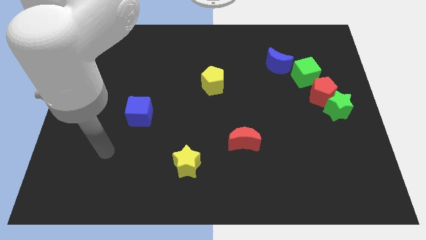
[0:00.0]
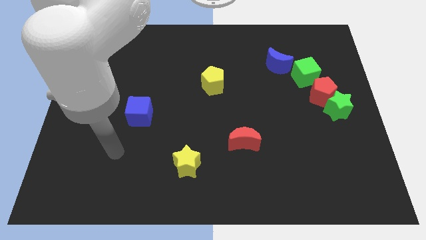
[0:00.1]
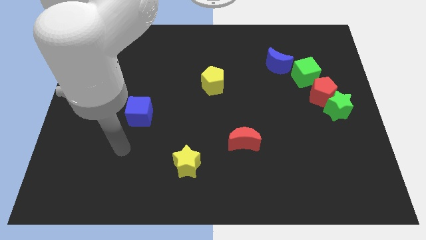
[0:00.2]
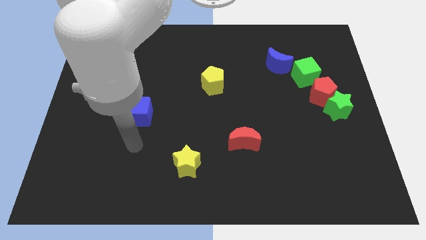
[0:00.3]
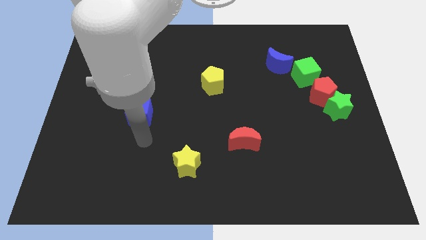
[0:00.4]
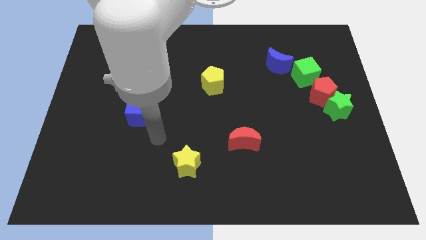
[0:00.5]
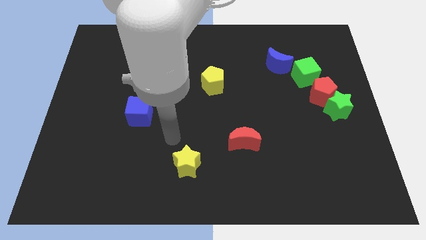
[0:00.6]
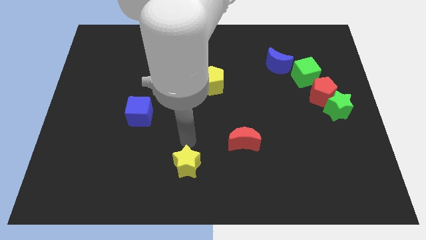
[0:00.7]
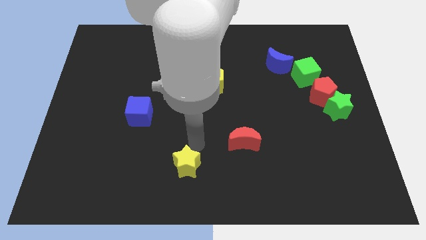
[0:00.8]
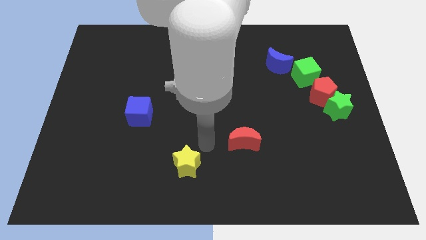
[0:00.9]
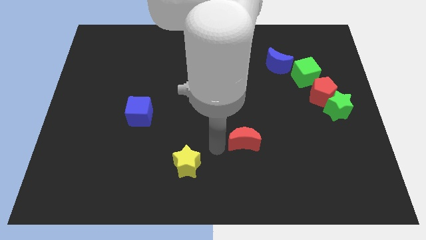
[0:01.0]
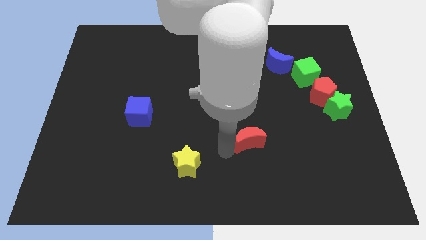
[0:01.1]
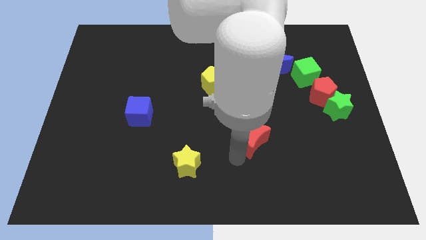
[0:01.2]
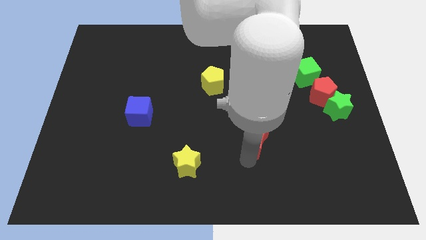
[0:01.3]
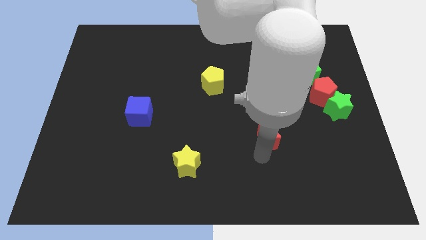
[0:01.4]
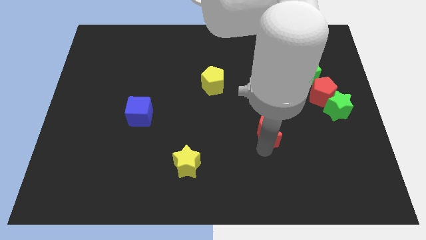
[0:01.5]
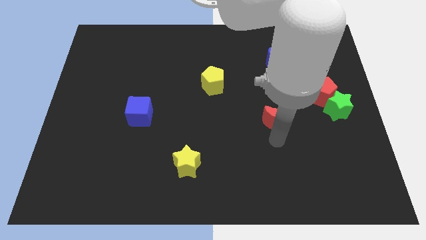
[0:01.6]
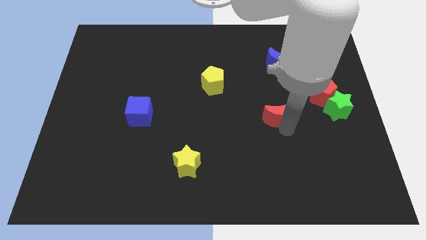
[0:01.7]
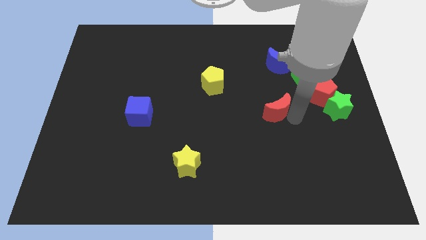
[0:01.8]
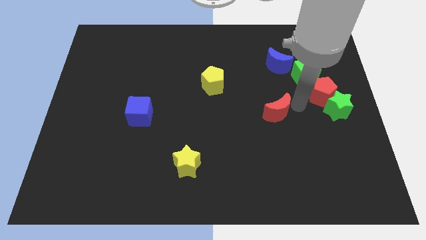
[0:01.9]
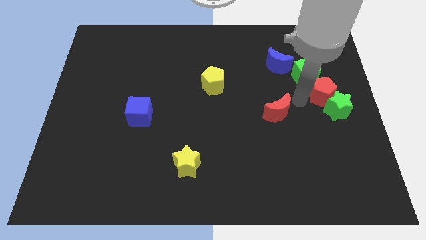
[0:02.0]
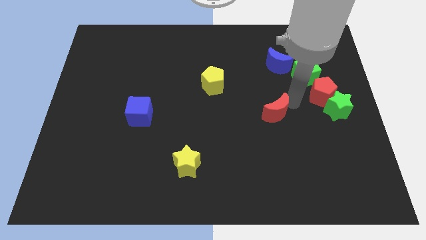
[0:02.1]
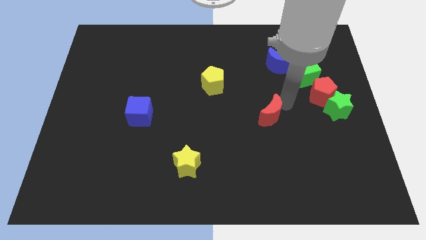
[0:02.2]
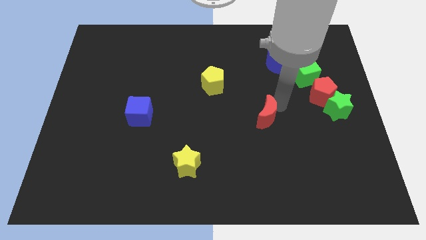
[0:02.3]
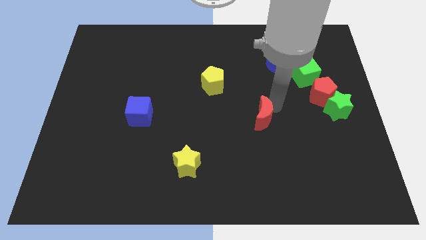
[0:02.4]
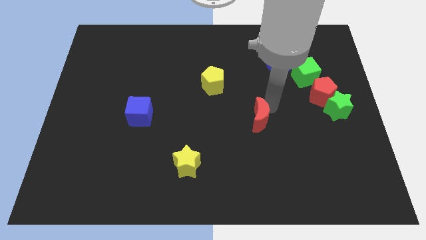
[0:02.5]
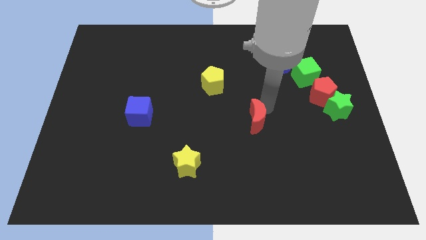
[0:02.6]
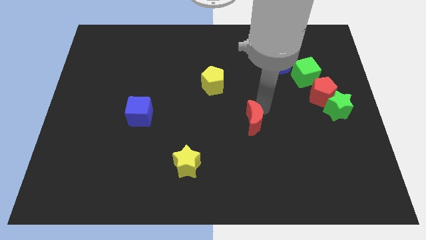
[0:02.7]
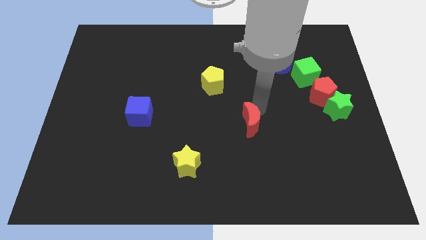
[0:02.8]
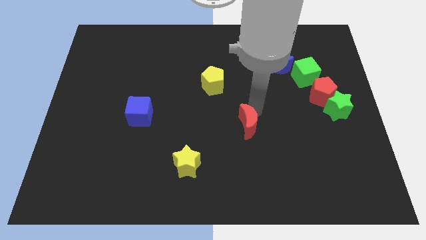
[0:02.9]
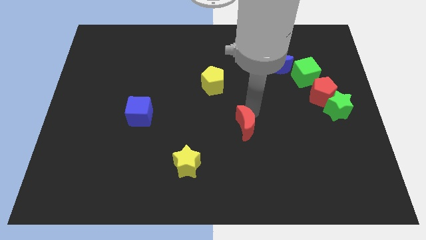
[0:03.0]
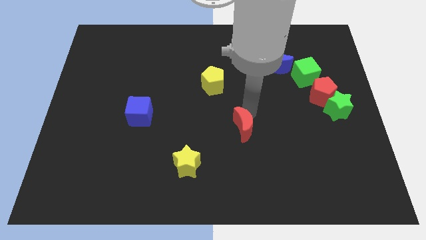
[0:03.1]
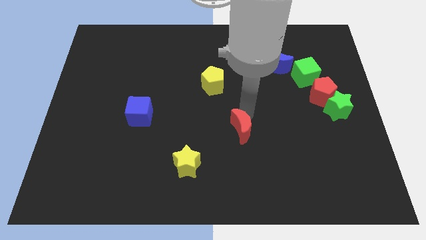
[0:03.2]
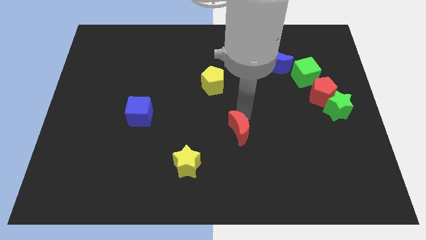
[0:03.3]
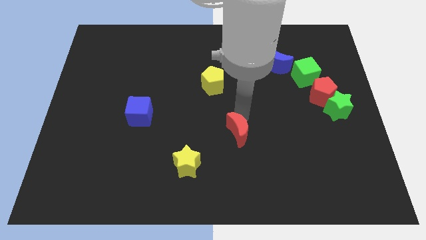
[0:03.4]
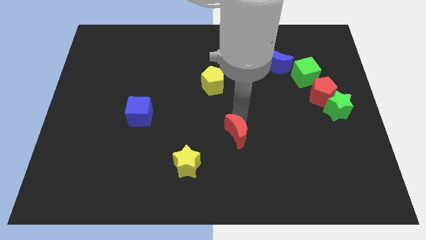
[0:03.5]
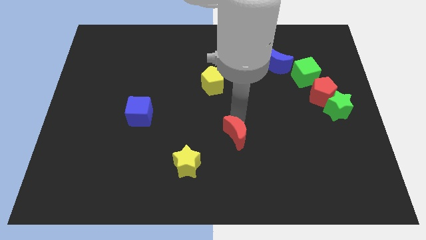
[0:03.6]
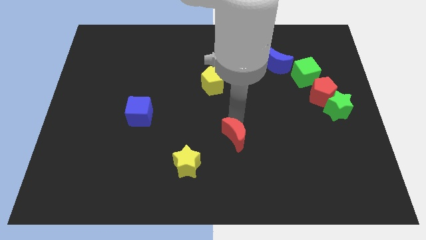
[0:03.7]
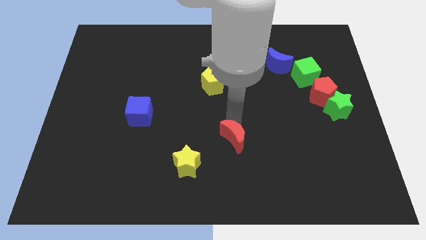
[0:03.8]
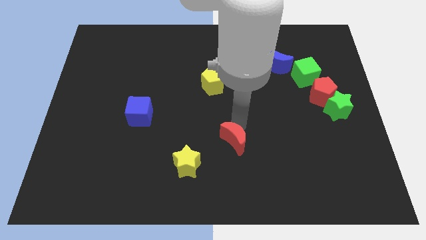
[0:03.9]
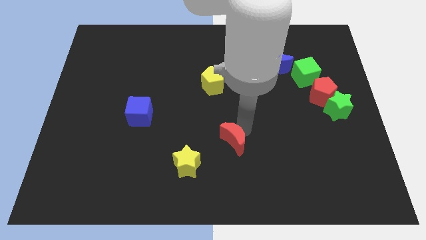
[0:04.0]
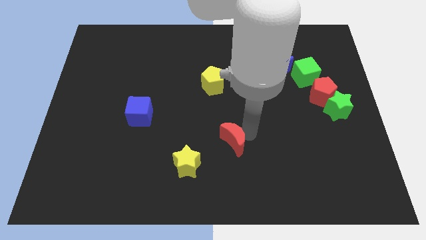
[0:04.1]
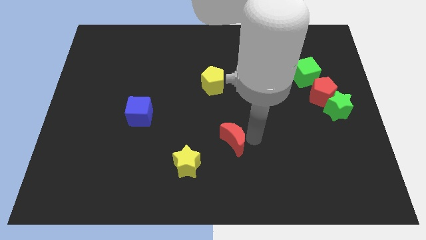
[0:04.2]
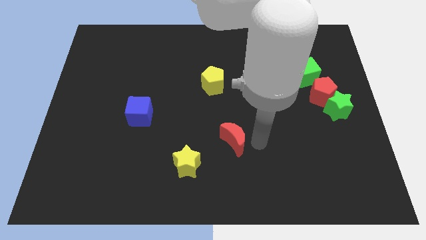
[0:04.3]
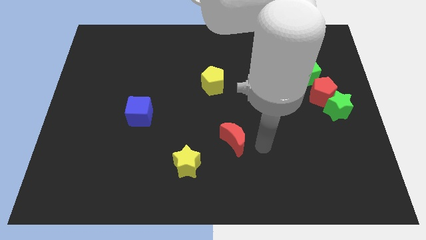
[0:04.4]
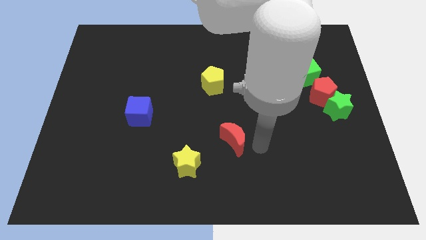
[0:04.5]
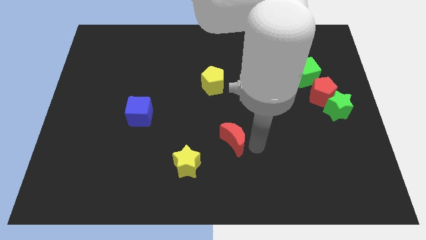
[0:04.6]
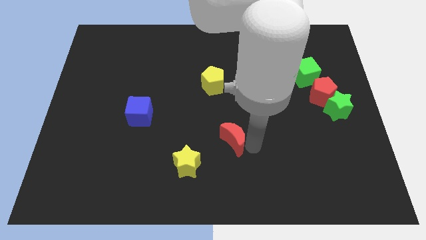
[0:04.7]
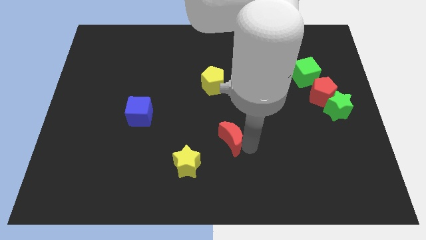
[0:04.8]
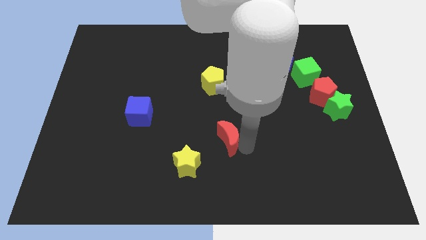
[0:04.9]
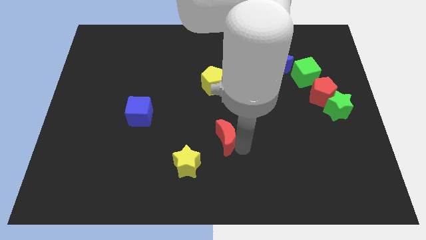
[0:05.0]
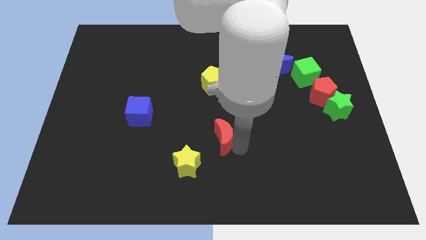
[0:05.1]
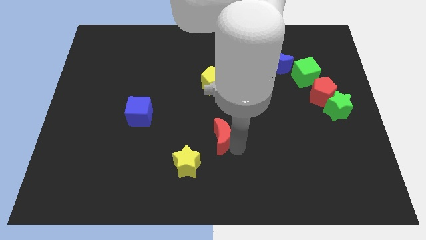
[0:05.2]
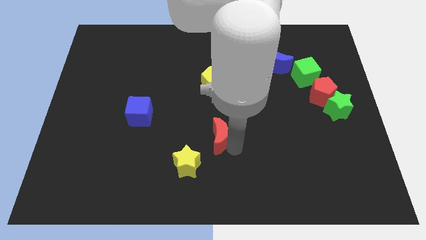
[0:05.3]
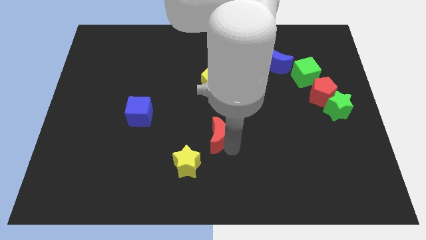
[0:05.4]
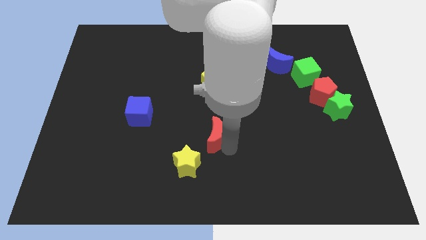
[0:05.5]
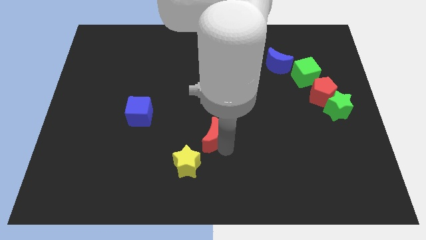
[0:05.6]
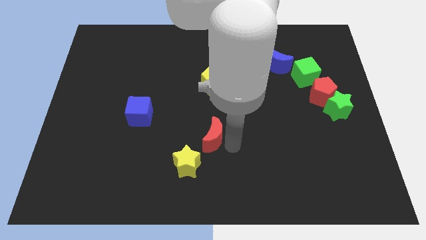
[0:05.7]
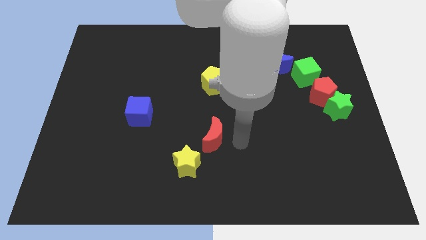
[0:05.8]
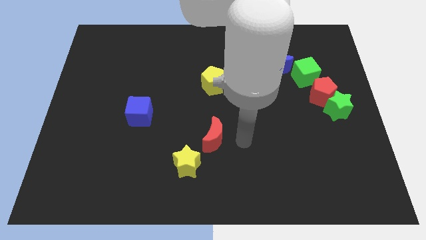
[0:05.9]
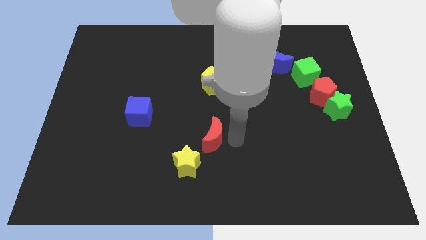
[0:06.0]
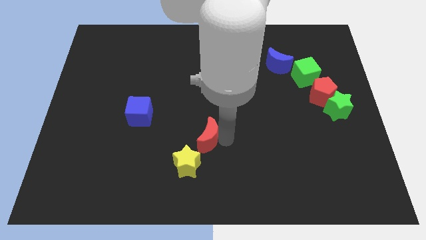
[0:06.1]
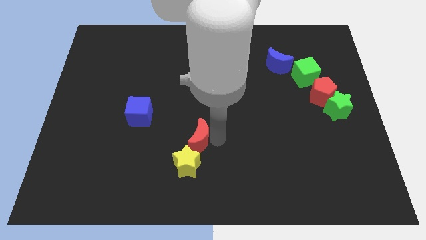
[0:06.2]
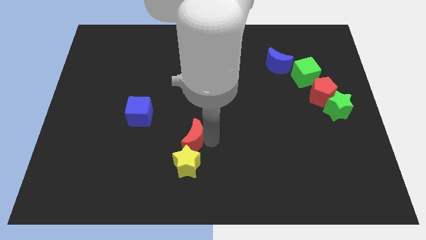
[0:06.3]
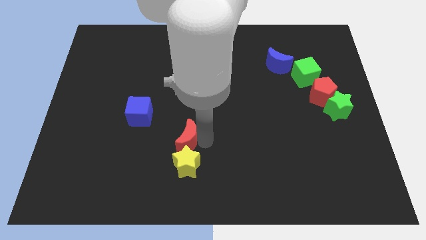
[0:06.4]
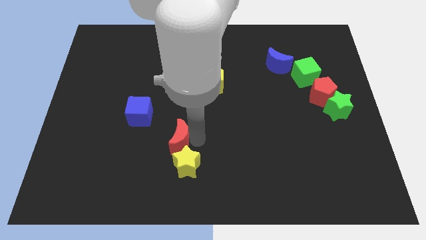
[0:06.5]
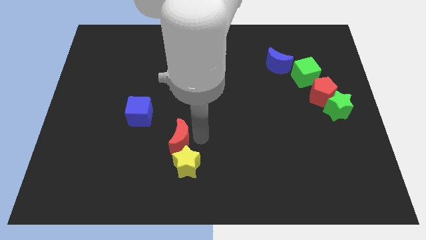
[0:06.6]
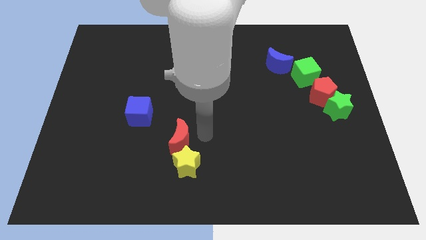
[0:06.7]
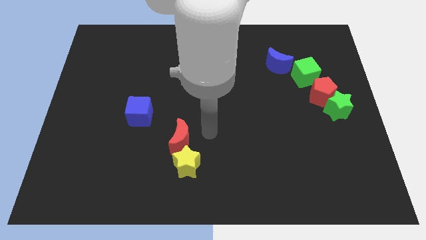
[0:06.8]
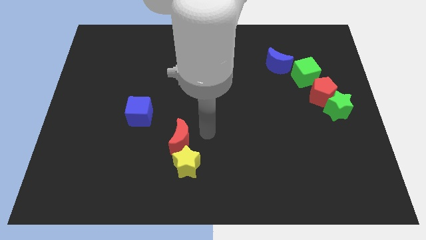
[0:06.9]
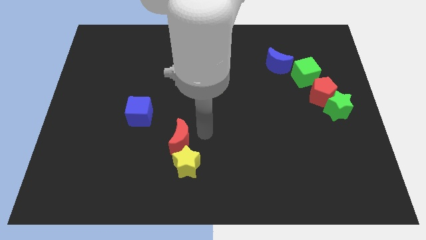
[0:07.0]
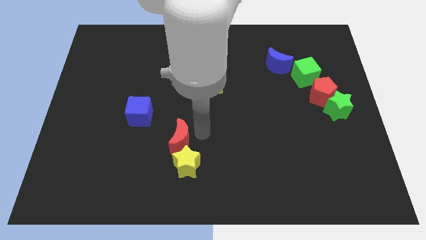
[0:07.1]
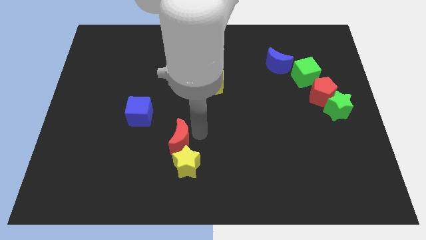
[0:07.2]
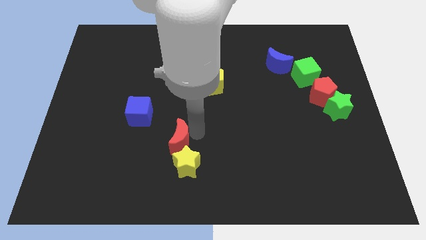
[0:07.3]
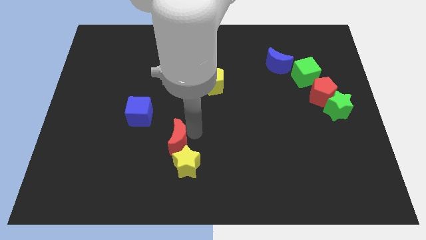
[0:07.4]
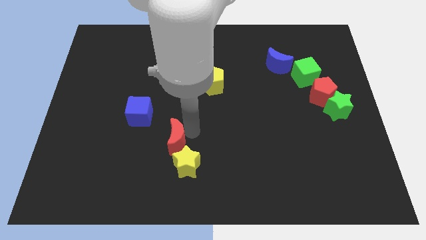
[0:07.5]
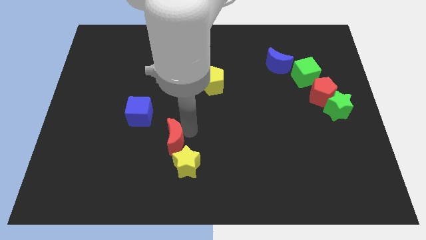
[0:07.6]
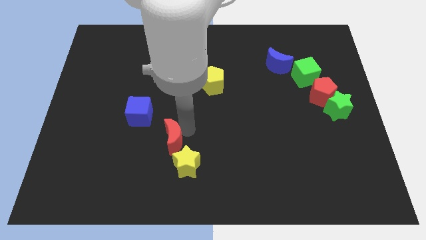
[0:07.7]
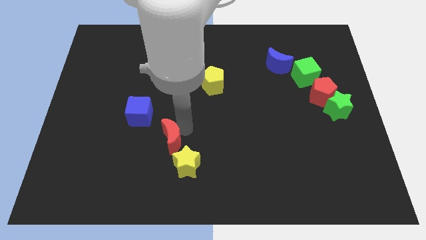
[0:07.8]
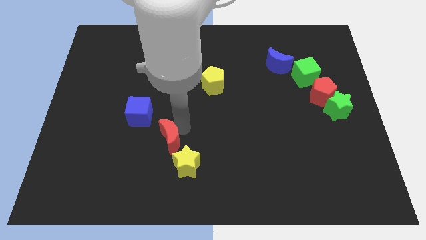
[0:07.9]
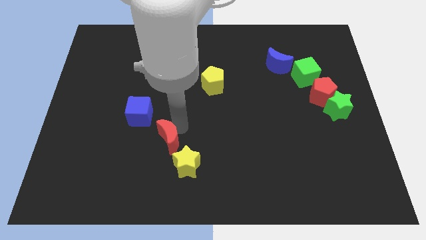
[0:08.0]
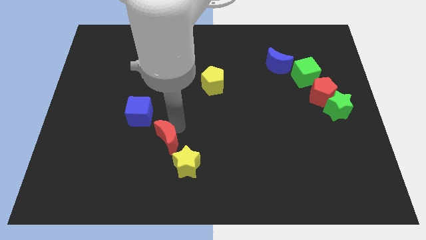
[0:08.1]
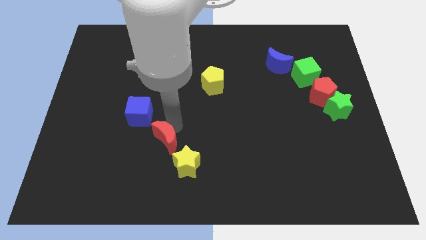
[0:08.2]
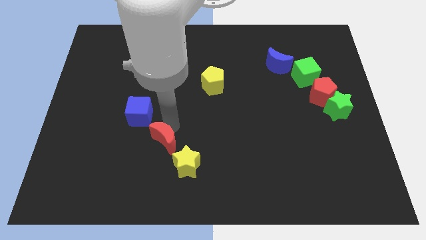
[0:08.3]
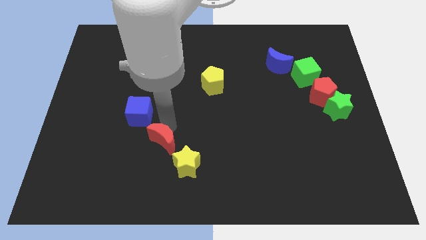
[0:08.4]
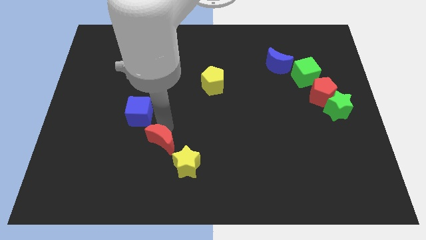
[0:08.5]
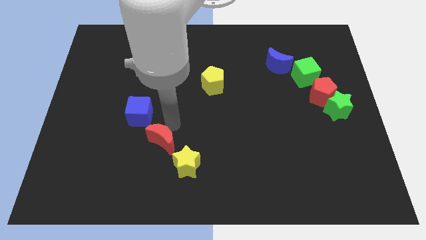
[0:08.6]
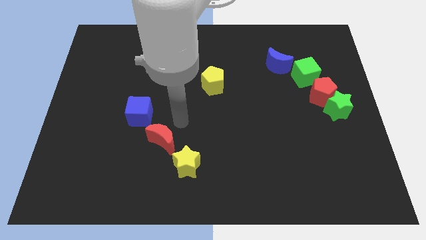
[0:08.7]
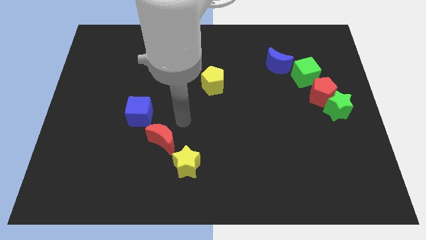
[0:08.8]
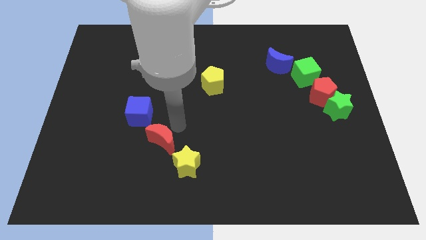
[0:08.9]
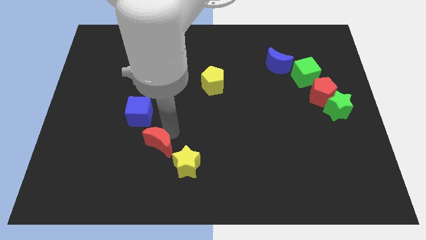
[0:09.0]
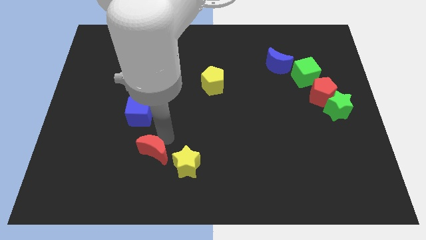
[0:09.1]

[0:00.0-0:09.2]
put the red moon to the left side of the yellow star
